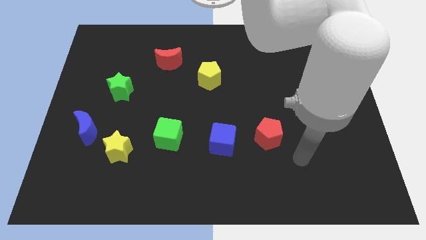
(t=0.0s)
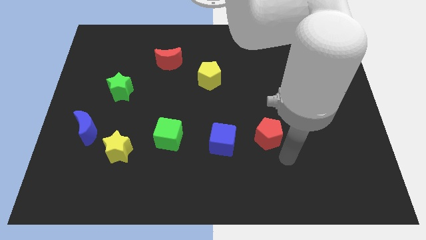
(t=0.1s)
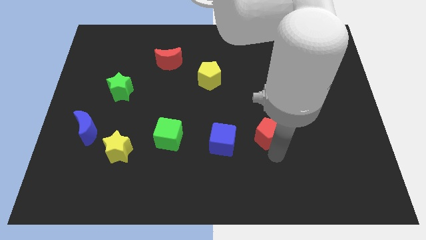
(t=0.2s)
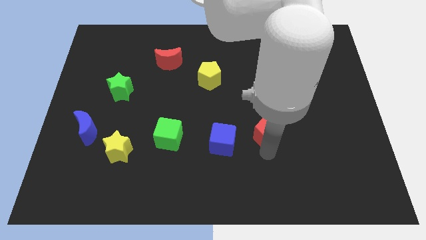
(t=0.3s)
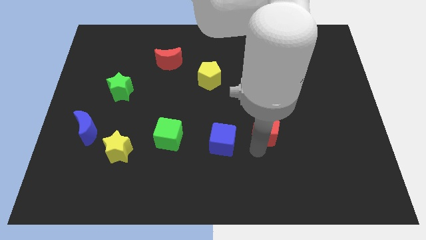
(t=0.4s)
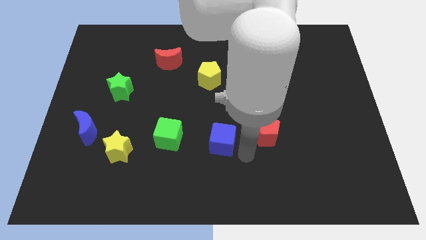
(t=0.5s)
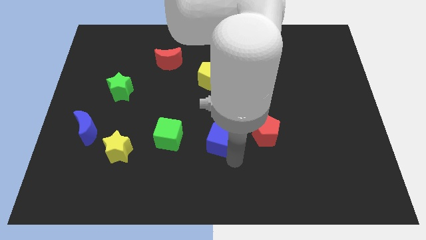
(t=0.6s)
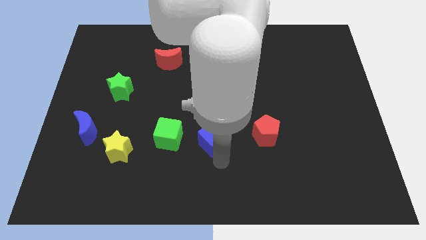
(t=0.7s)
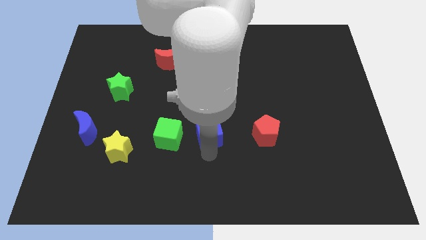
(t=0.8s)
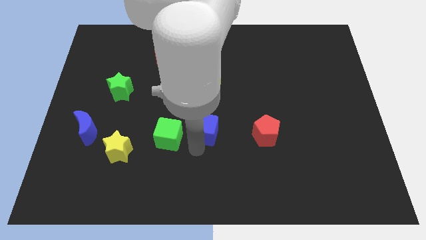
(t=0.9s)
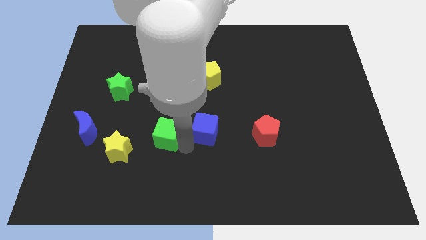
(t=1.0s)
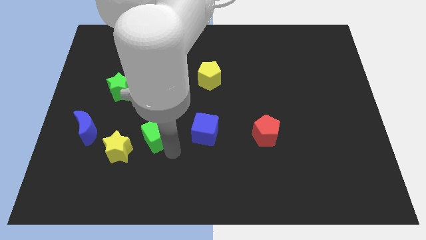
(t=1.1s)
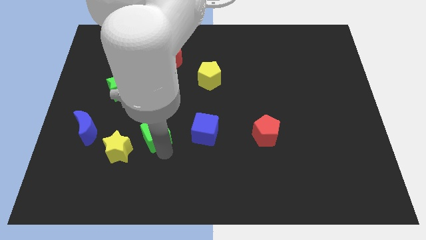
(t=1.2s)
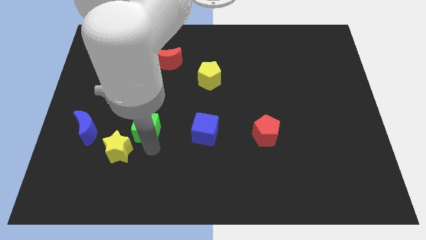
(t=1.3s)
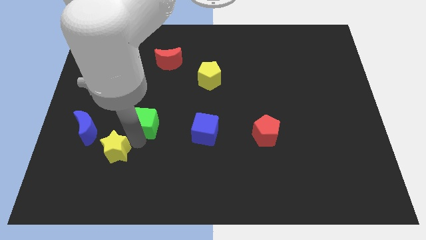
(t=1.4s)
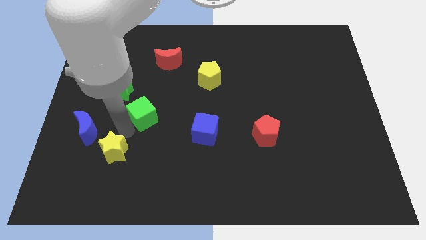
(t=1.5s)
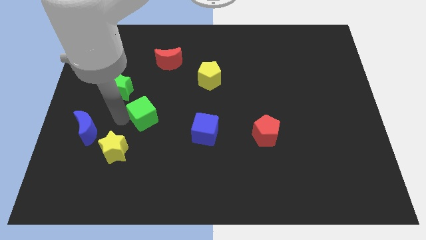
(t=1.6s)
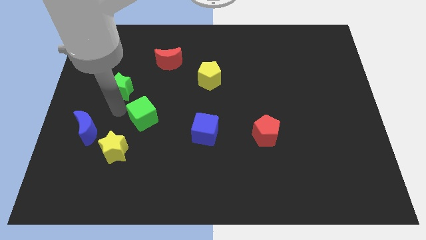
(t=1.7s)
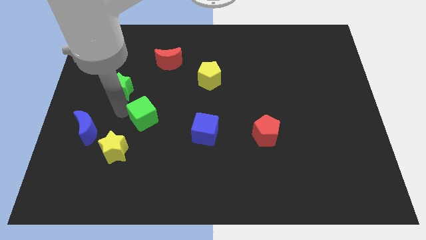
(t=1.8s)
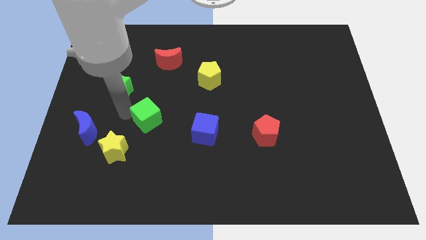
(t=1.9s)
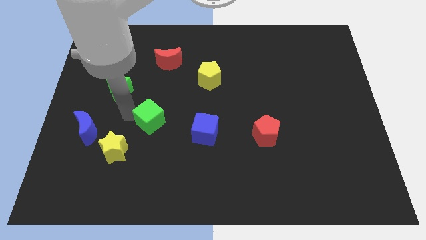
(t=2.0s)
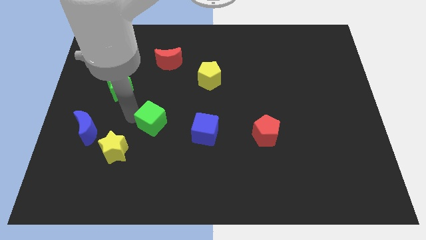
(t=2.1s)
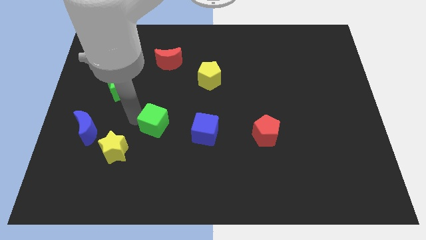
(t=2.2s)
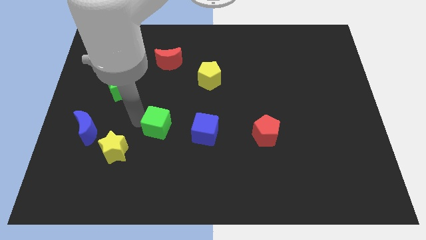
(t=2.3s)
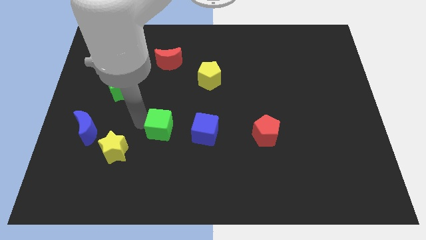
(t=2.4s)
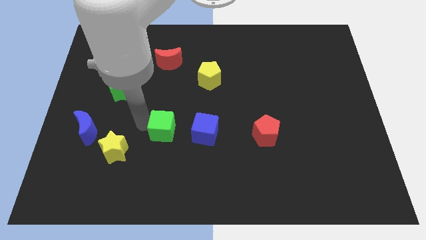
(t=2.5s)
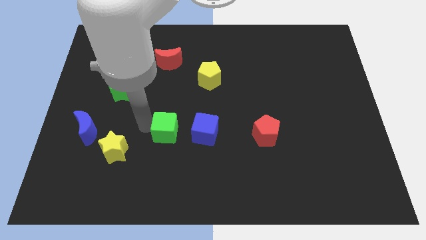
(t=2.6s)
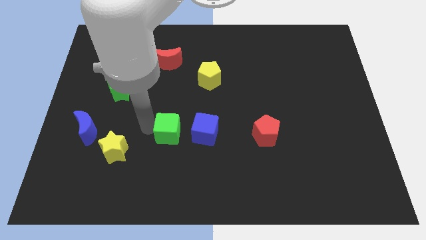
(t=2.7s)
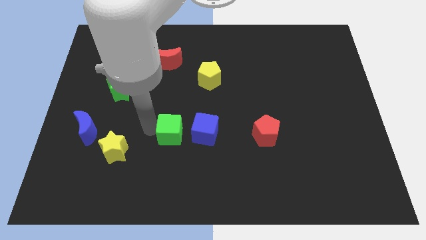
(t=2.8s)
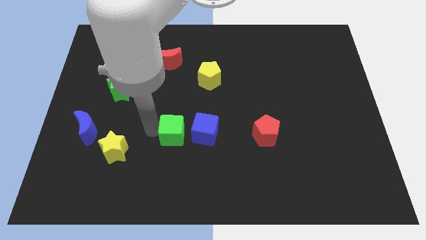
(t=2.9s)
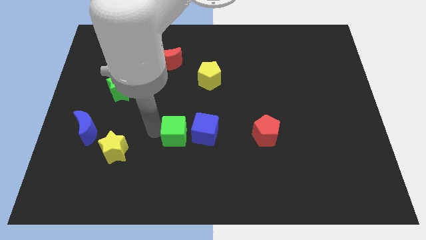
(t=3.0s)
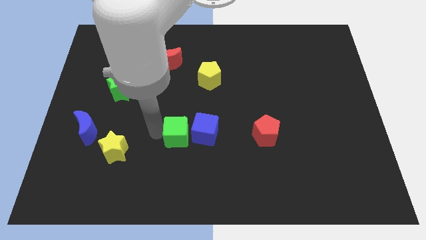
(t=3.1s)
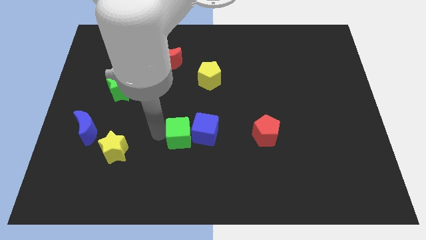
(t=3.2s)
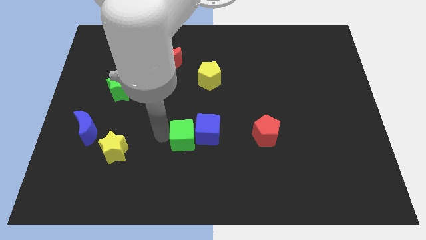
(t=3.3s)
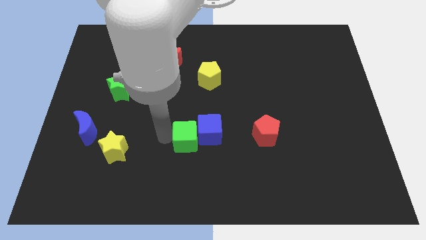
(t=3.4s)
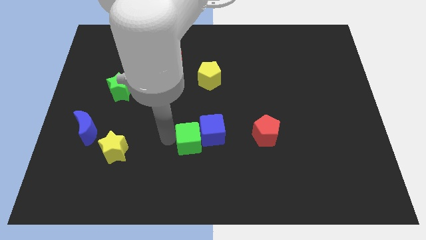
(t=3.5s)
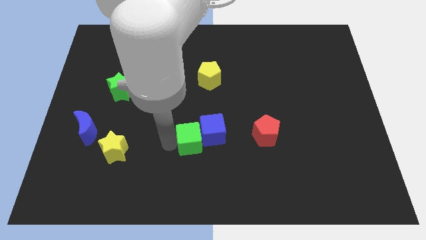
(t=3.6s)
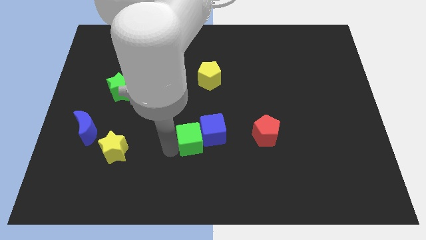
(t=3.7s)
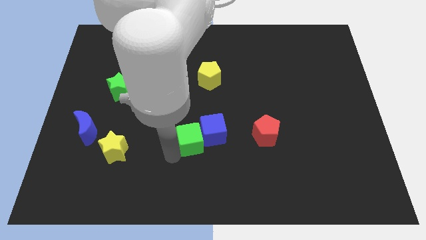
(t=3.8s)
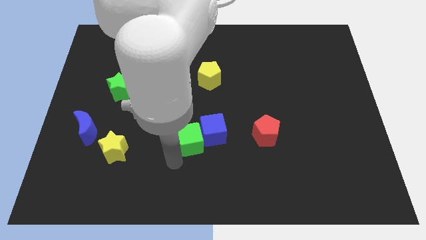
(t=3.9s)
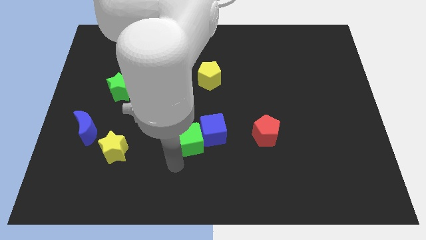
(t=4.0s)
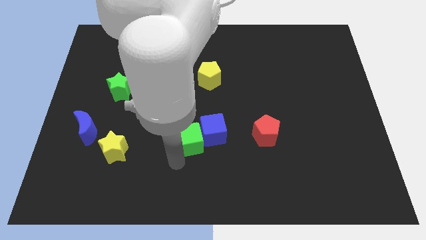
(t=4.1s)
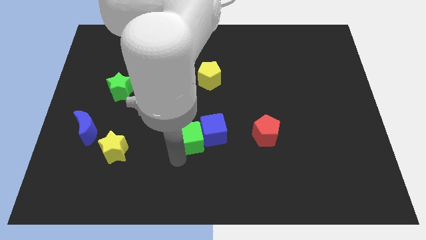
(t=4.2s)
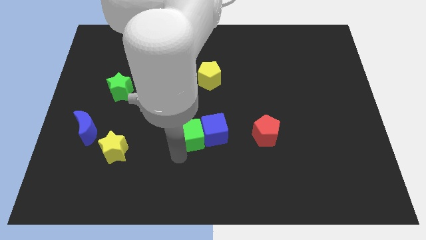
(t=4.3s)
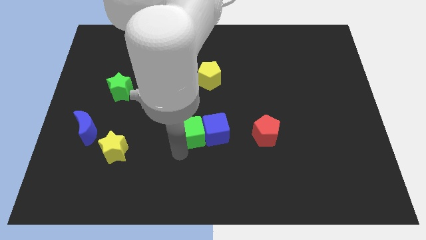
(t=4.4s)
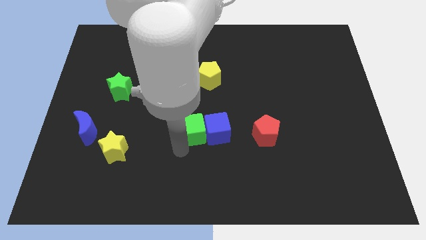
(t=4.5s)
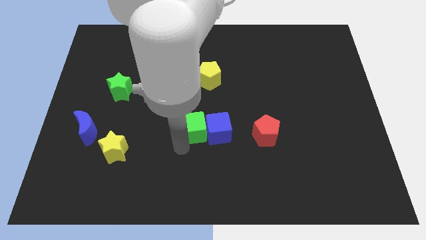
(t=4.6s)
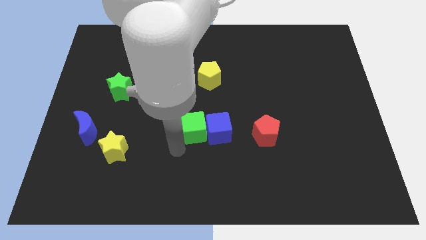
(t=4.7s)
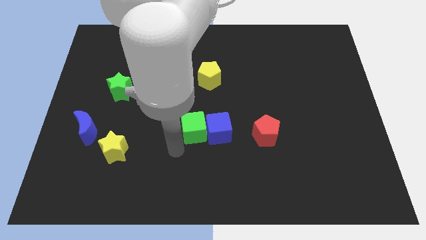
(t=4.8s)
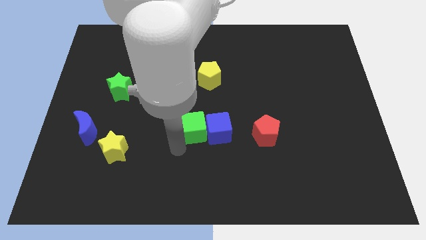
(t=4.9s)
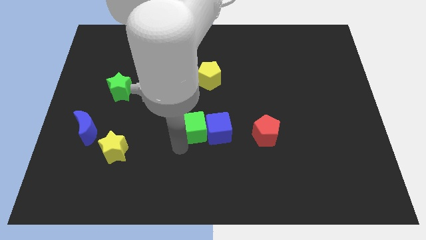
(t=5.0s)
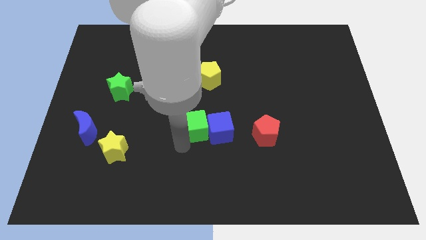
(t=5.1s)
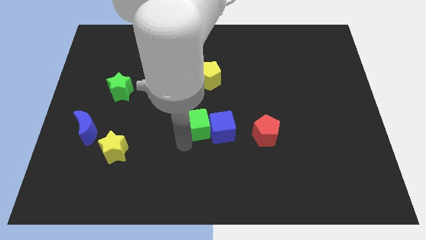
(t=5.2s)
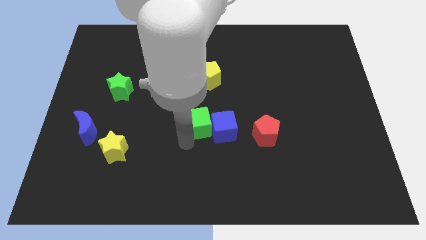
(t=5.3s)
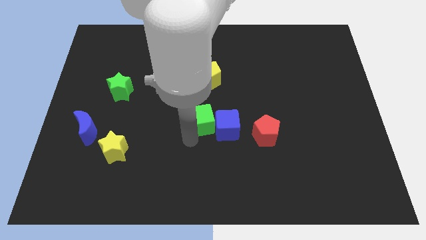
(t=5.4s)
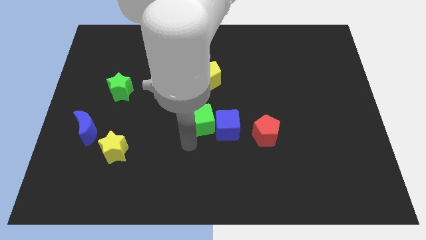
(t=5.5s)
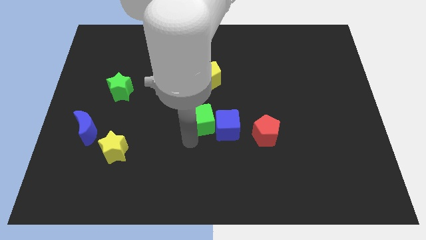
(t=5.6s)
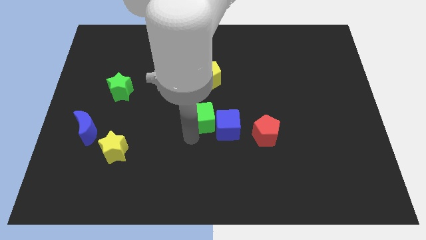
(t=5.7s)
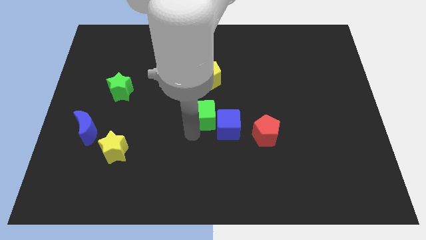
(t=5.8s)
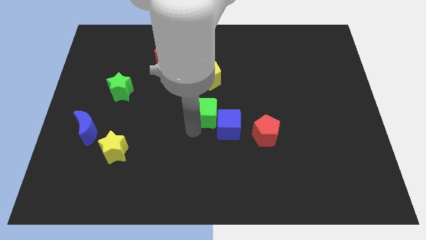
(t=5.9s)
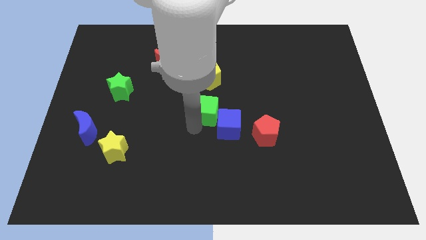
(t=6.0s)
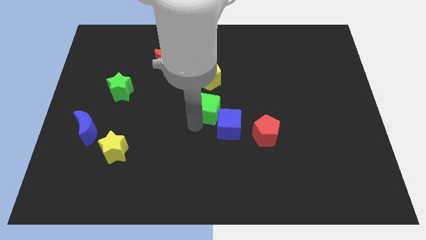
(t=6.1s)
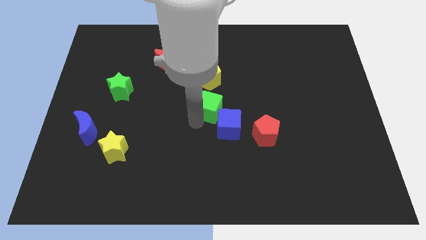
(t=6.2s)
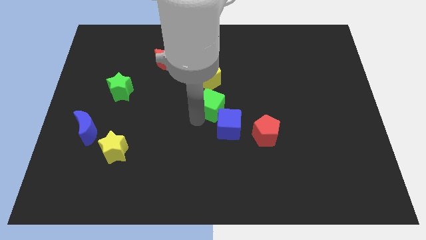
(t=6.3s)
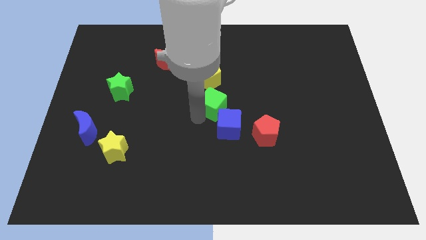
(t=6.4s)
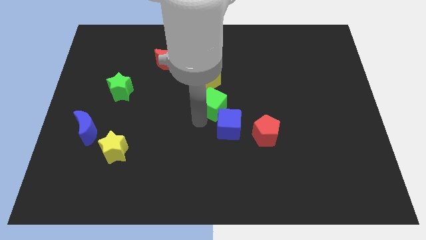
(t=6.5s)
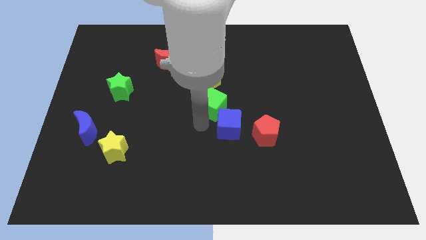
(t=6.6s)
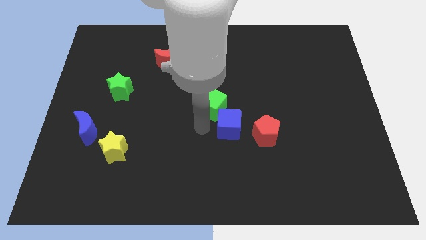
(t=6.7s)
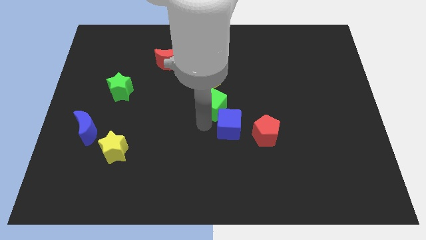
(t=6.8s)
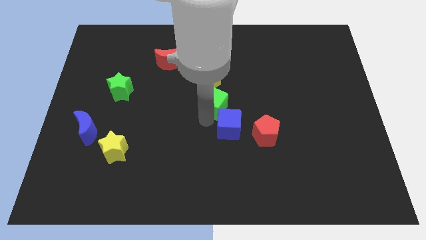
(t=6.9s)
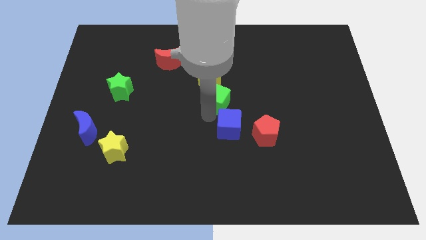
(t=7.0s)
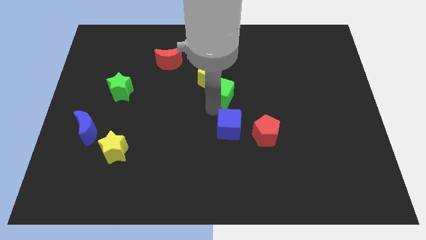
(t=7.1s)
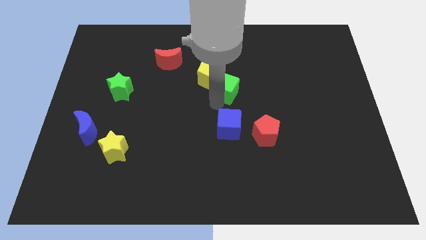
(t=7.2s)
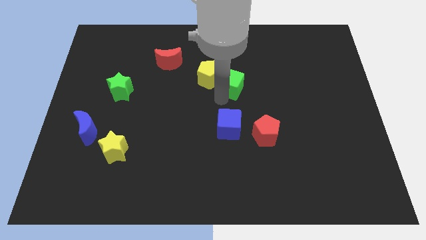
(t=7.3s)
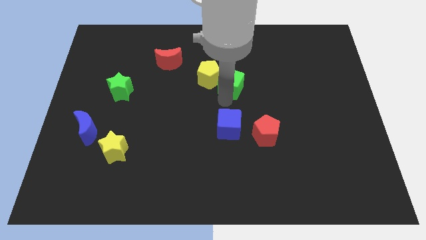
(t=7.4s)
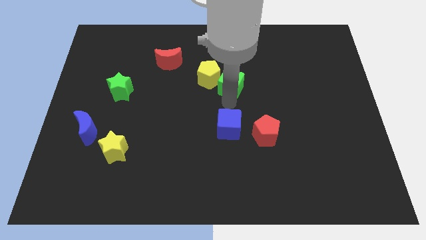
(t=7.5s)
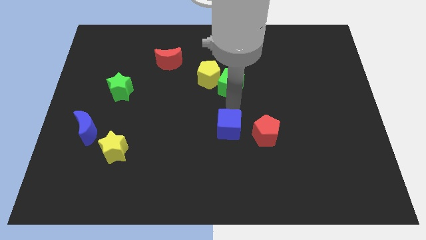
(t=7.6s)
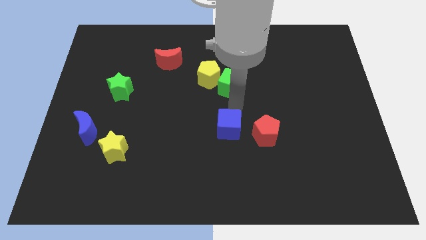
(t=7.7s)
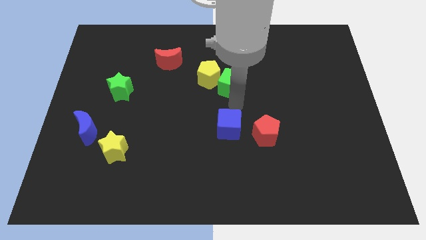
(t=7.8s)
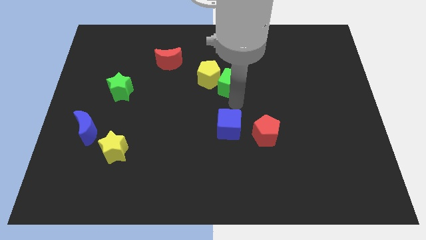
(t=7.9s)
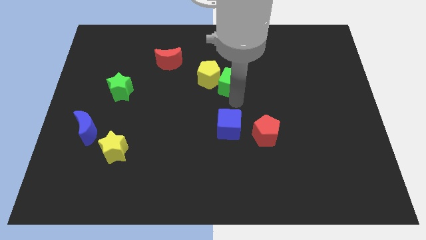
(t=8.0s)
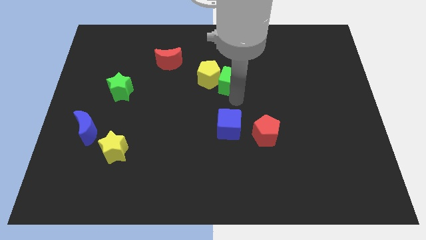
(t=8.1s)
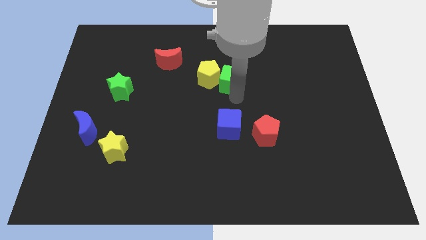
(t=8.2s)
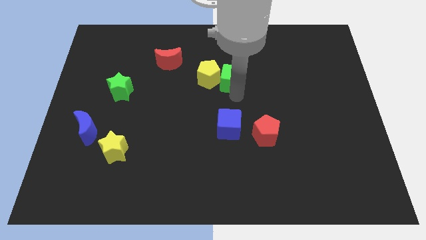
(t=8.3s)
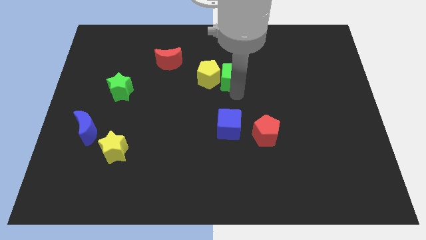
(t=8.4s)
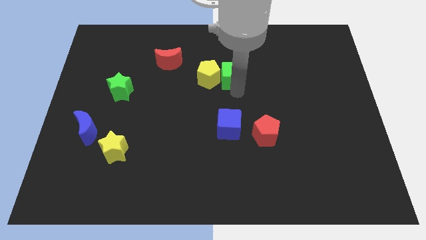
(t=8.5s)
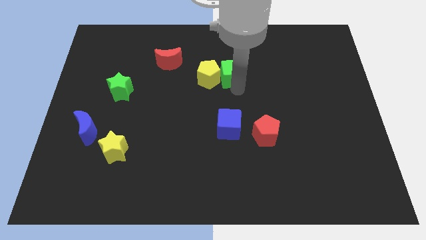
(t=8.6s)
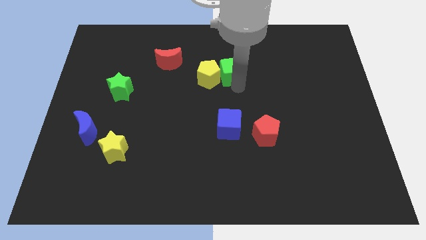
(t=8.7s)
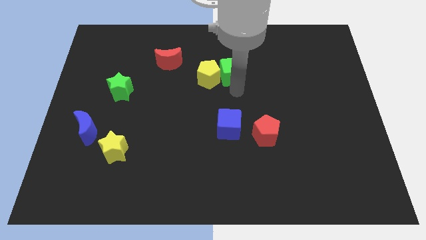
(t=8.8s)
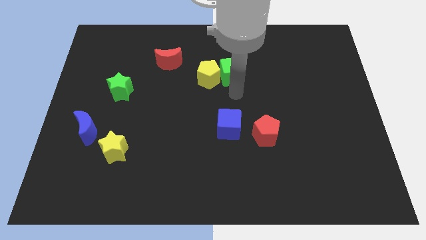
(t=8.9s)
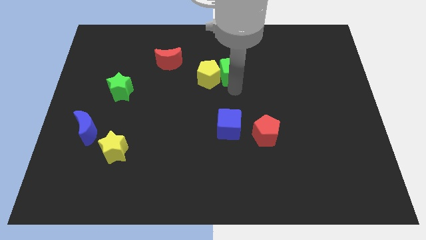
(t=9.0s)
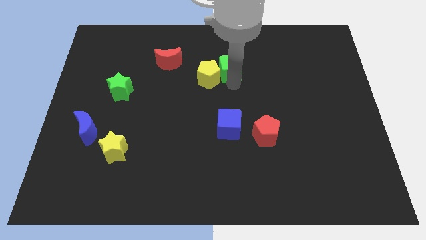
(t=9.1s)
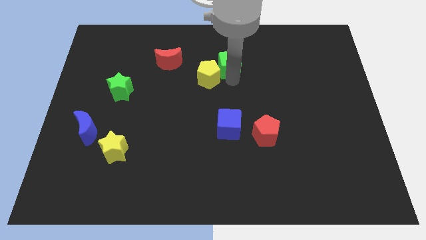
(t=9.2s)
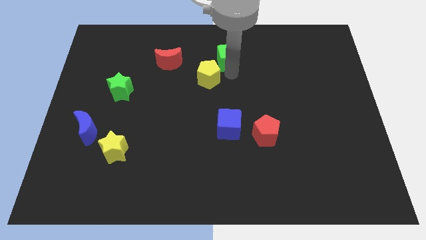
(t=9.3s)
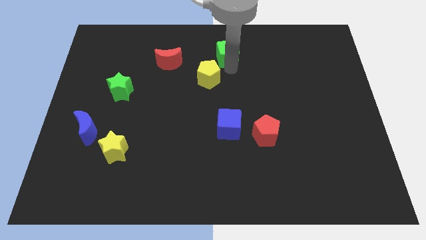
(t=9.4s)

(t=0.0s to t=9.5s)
move the green cube to the towards your base
